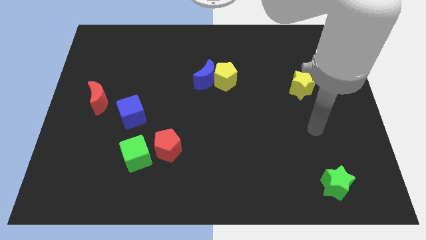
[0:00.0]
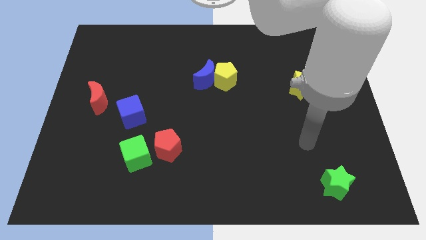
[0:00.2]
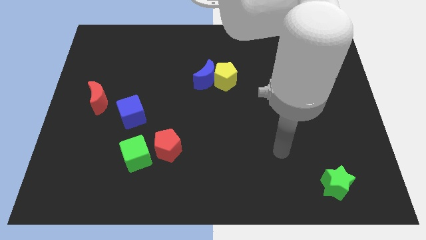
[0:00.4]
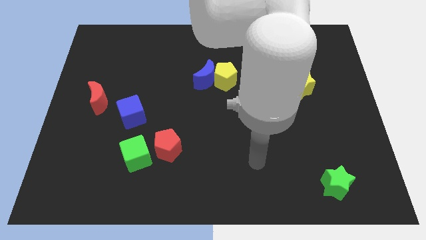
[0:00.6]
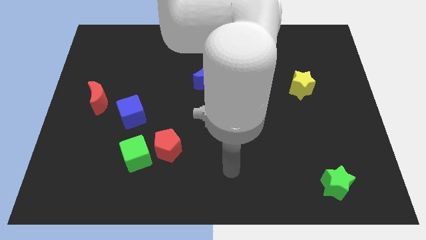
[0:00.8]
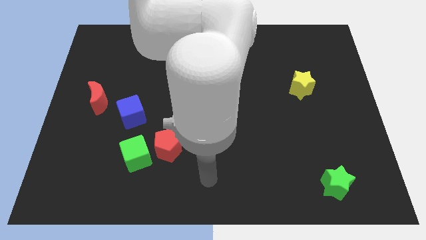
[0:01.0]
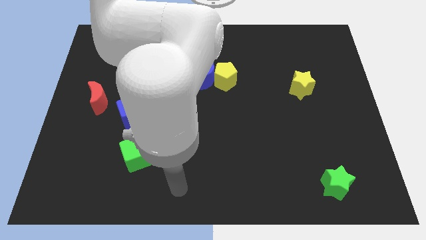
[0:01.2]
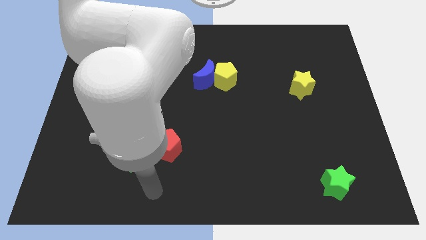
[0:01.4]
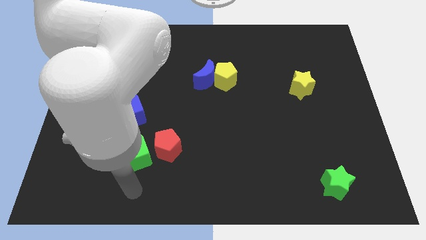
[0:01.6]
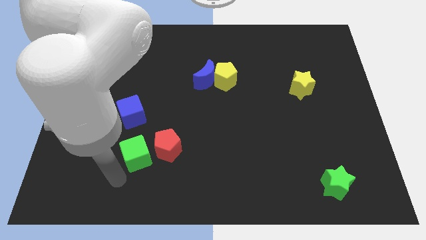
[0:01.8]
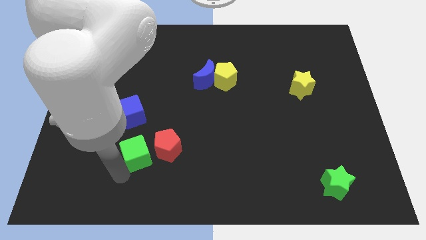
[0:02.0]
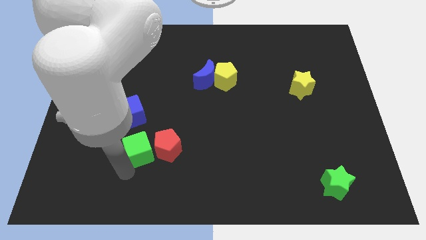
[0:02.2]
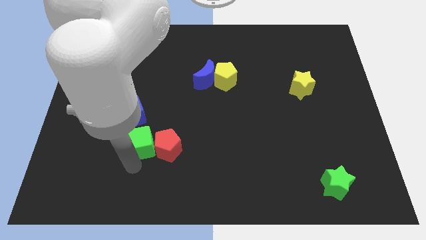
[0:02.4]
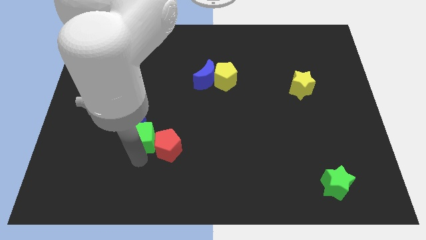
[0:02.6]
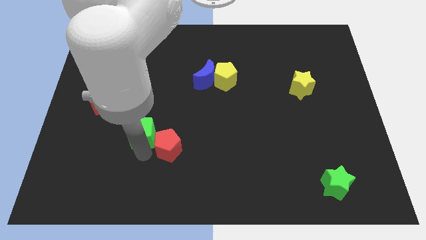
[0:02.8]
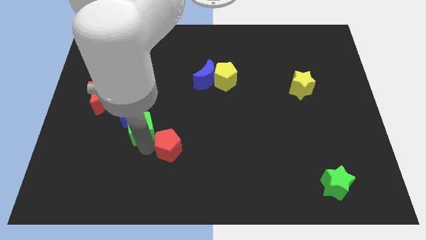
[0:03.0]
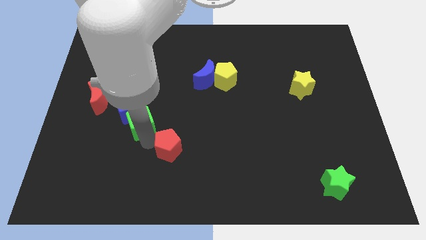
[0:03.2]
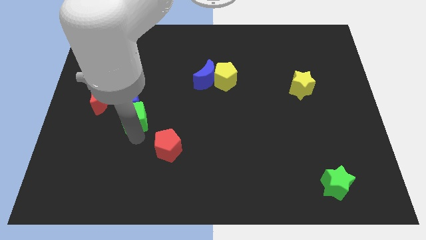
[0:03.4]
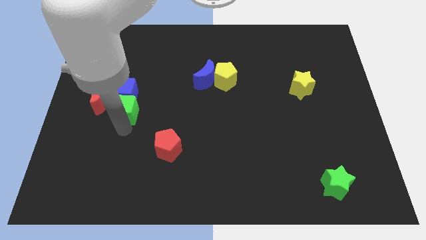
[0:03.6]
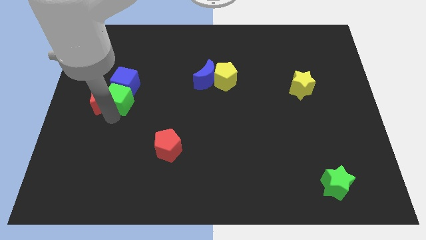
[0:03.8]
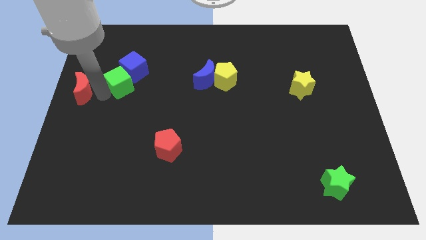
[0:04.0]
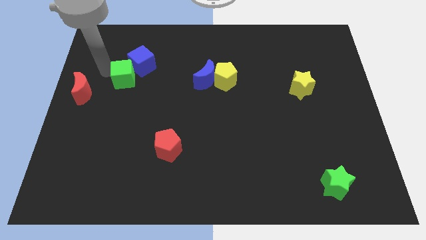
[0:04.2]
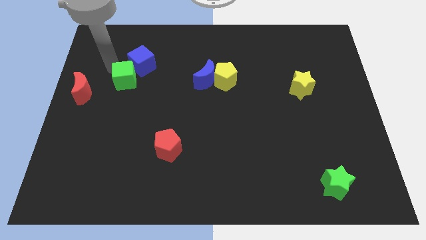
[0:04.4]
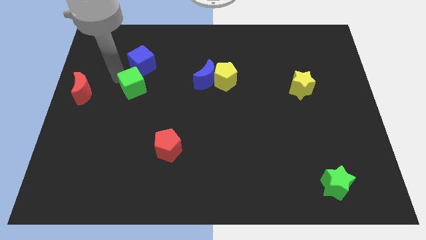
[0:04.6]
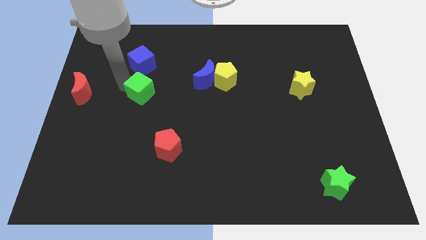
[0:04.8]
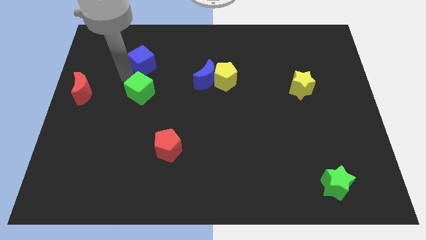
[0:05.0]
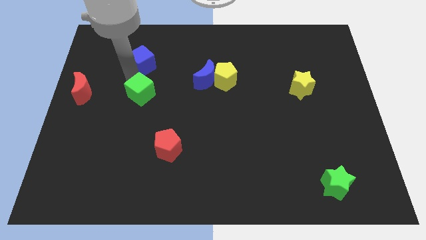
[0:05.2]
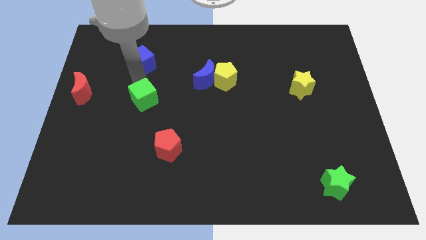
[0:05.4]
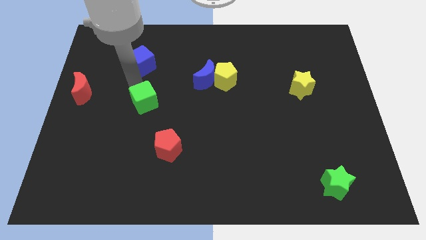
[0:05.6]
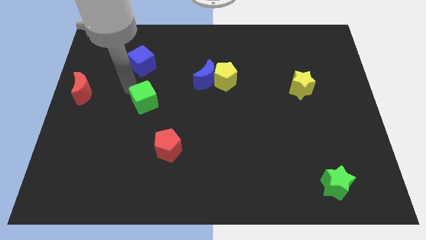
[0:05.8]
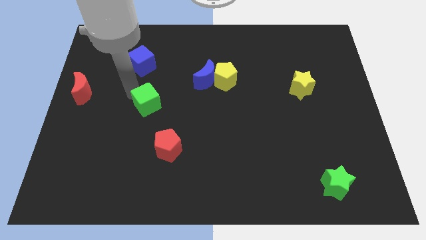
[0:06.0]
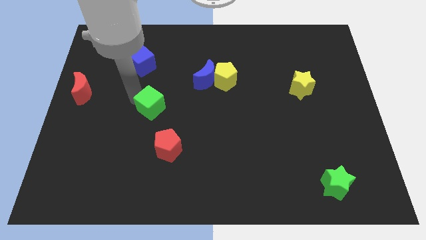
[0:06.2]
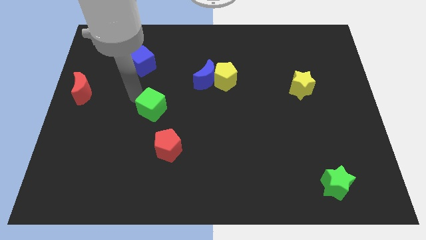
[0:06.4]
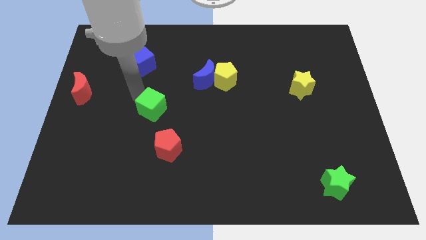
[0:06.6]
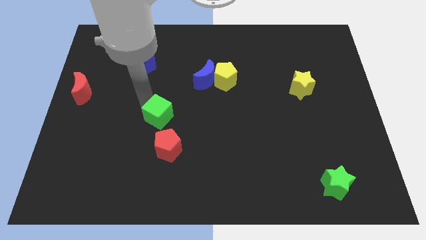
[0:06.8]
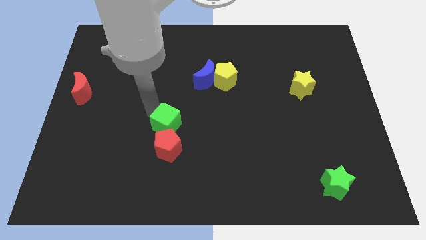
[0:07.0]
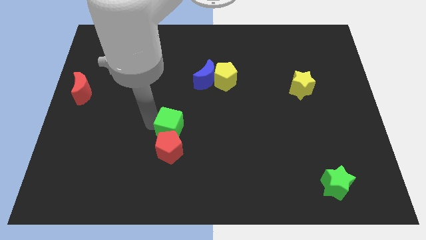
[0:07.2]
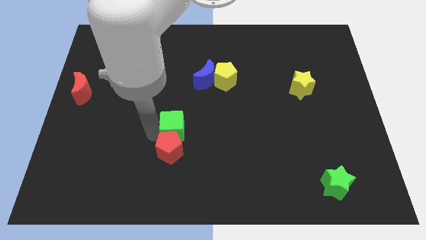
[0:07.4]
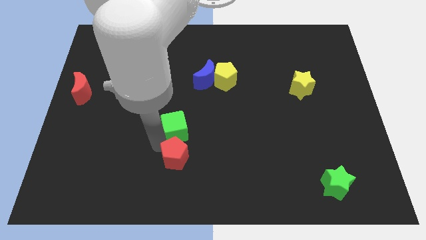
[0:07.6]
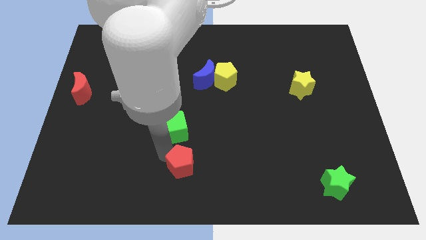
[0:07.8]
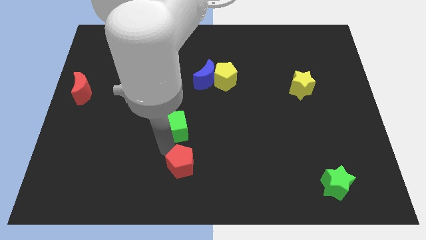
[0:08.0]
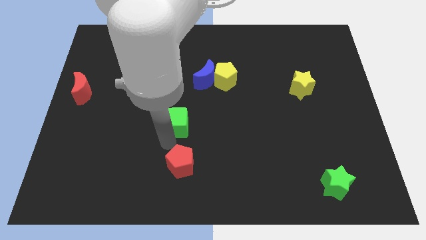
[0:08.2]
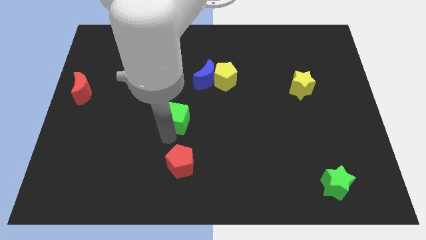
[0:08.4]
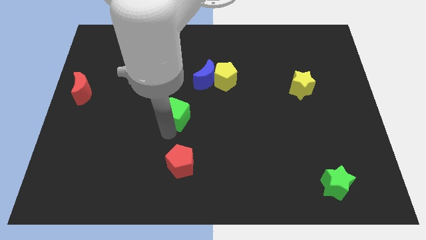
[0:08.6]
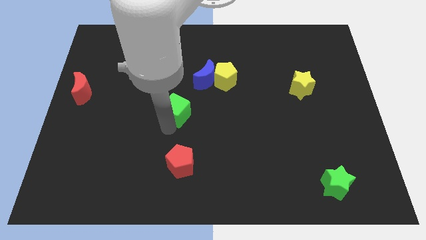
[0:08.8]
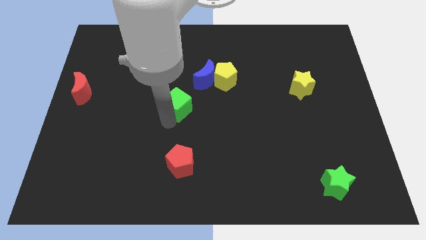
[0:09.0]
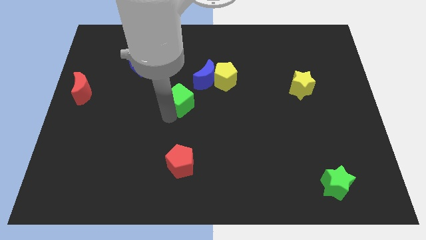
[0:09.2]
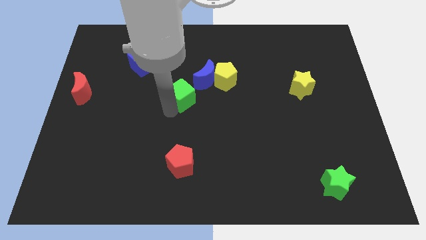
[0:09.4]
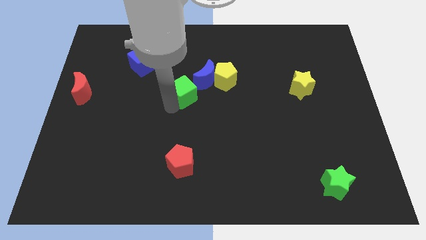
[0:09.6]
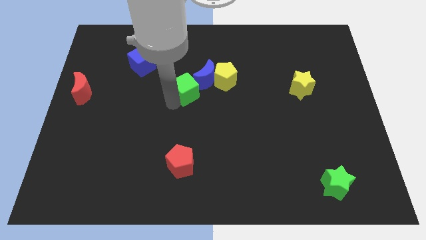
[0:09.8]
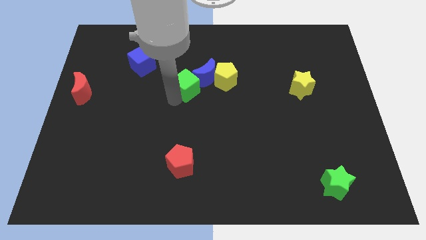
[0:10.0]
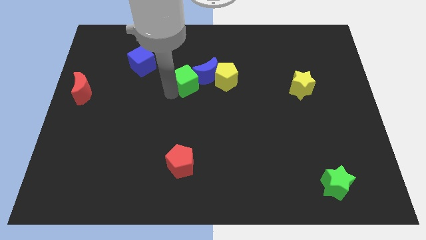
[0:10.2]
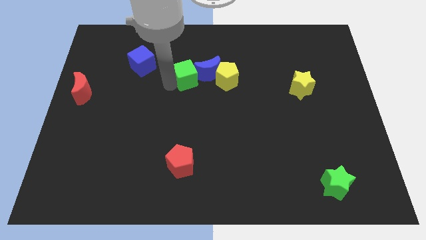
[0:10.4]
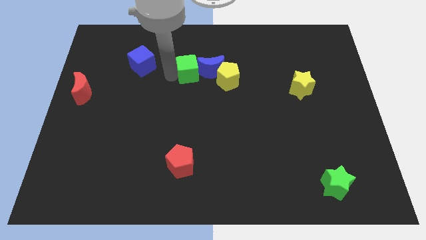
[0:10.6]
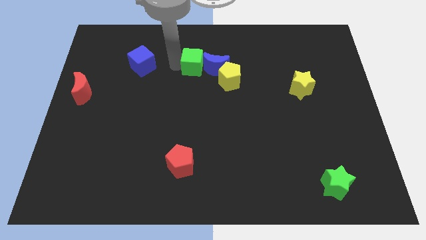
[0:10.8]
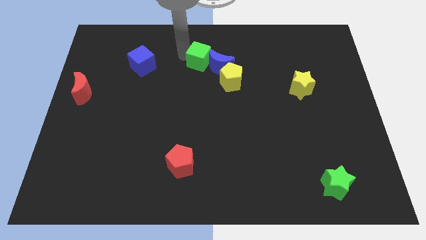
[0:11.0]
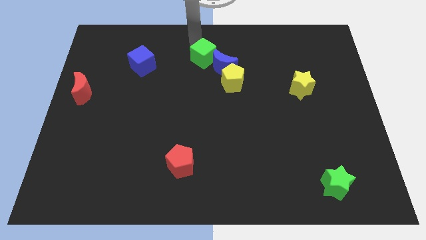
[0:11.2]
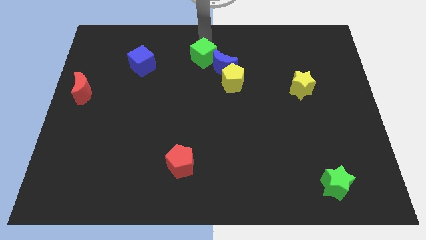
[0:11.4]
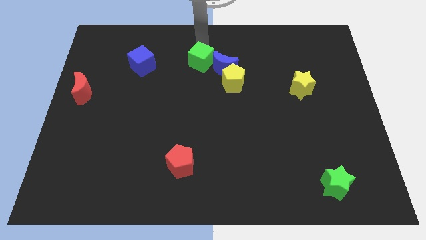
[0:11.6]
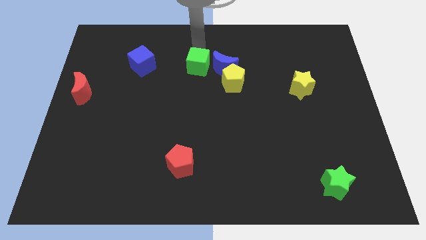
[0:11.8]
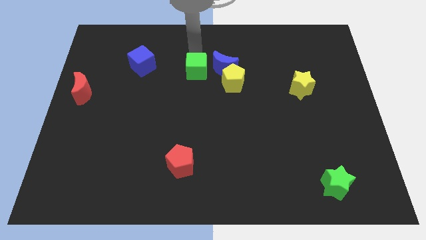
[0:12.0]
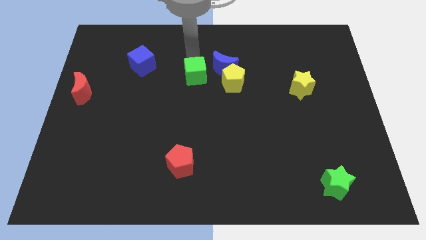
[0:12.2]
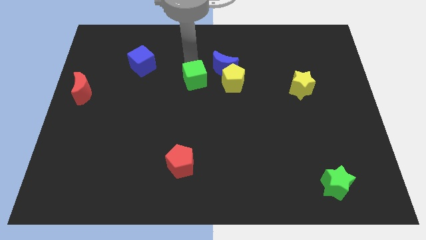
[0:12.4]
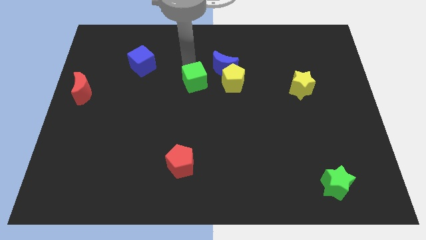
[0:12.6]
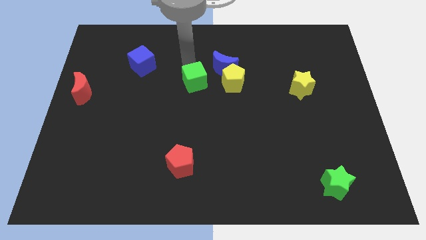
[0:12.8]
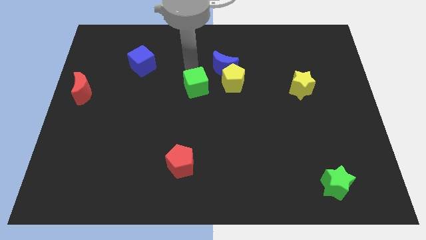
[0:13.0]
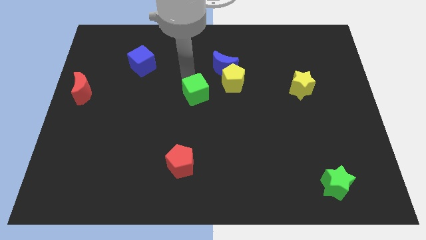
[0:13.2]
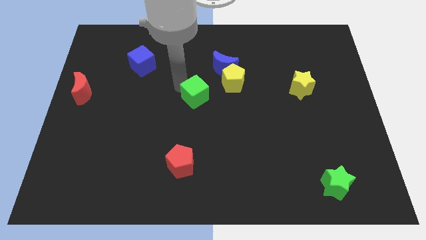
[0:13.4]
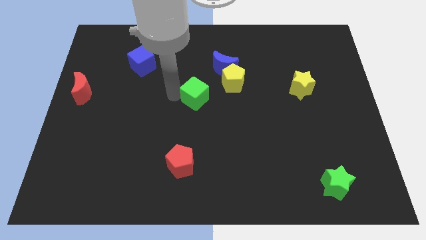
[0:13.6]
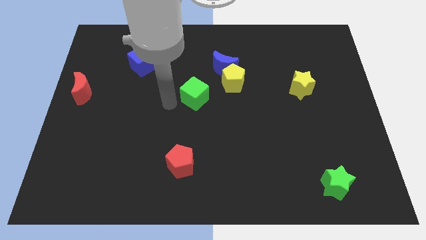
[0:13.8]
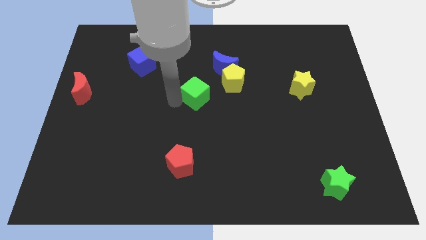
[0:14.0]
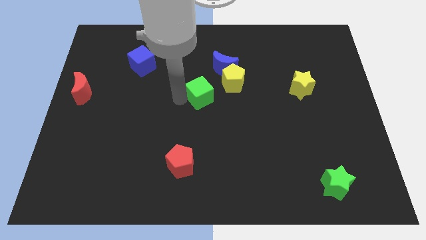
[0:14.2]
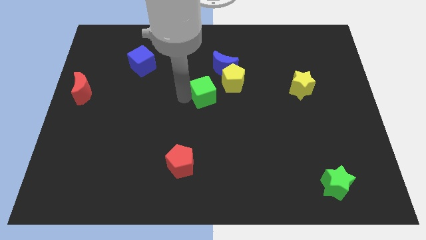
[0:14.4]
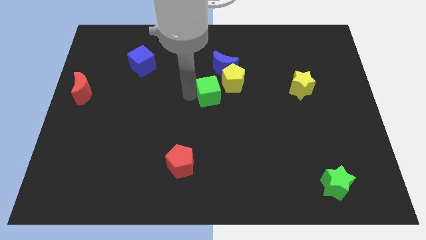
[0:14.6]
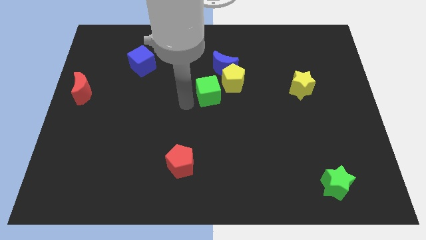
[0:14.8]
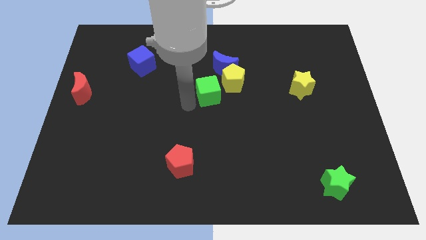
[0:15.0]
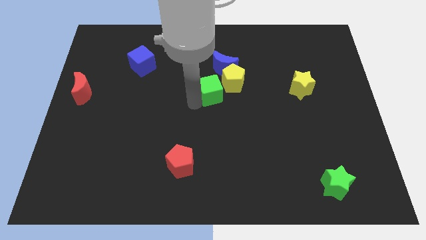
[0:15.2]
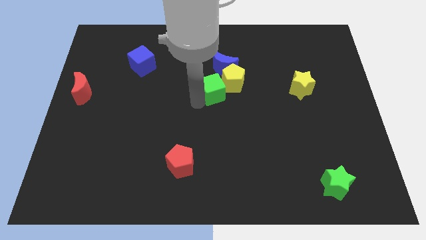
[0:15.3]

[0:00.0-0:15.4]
move the green cube to the yellow pentagon
